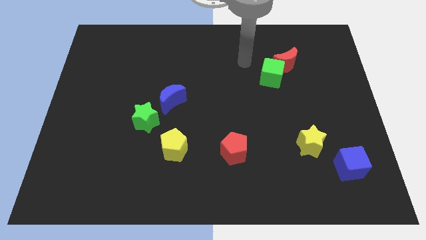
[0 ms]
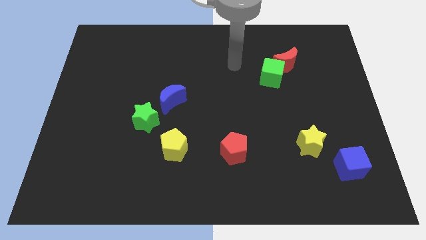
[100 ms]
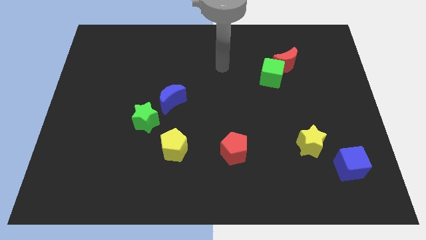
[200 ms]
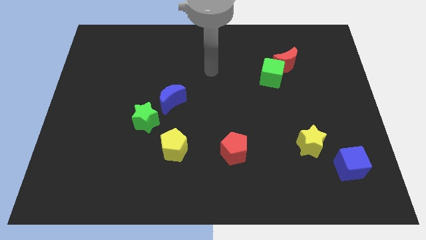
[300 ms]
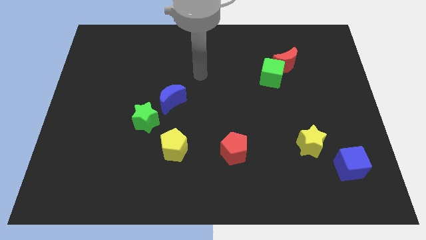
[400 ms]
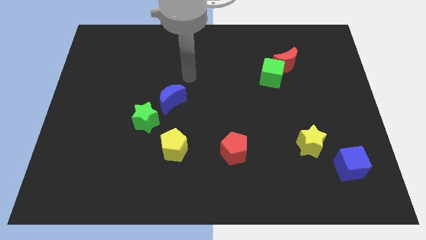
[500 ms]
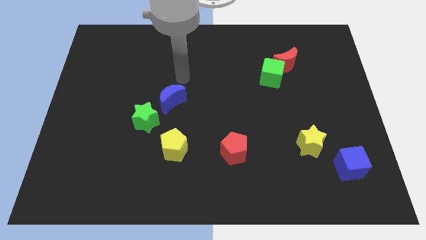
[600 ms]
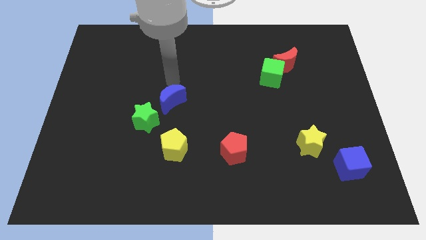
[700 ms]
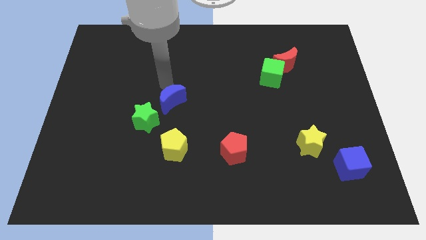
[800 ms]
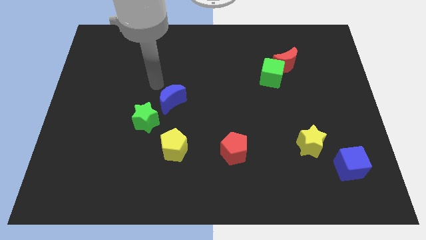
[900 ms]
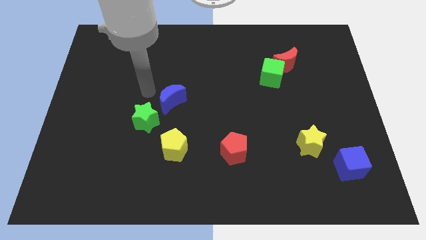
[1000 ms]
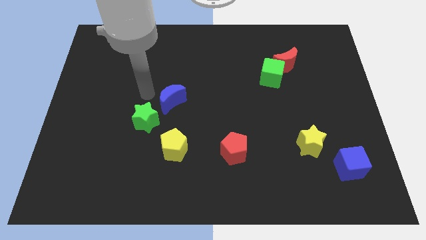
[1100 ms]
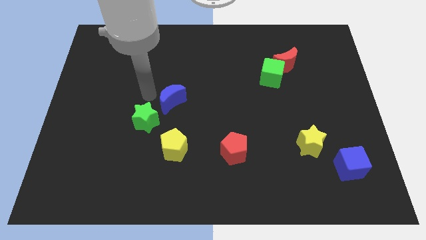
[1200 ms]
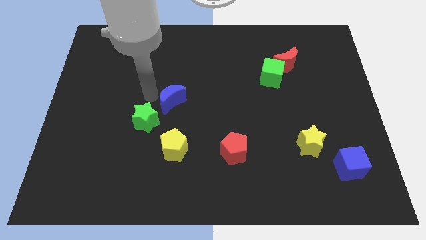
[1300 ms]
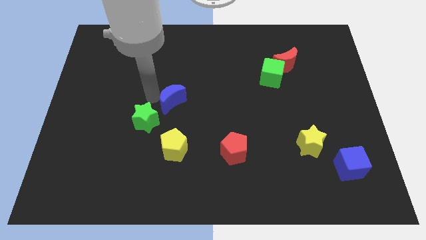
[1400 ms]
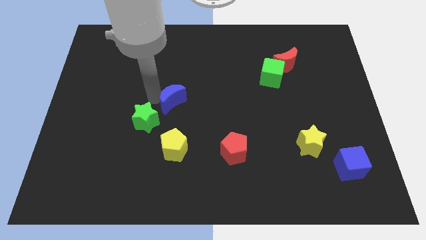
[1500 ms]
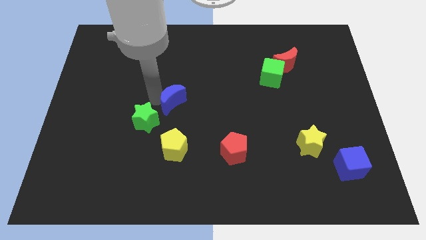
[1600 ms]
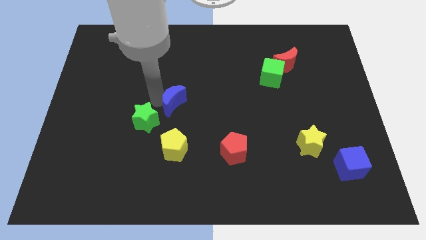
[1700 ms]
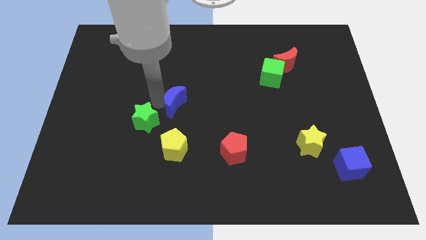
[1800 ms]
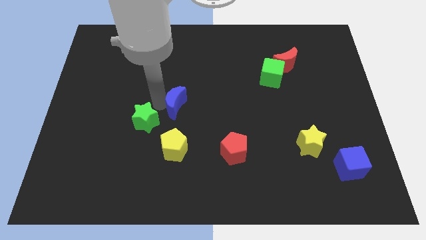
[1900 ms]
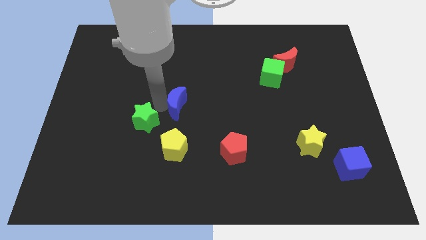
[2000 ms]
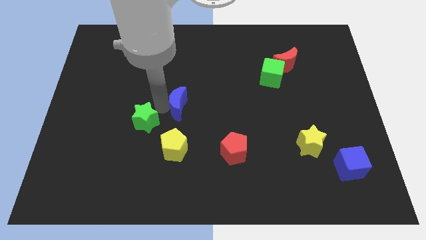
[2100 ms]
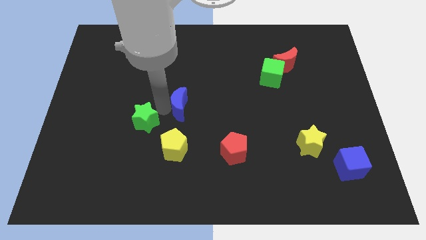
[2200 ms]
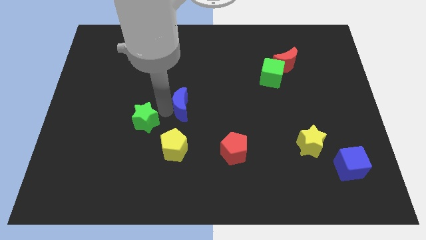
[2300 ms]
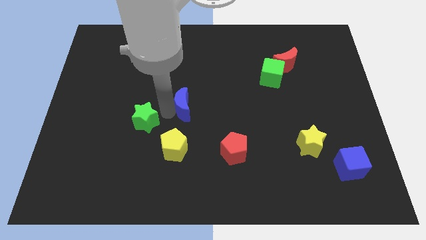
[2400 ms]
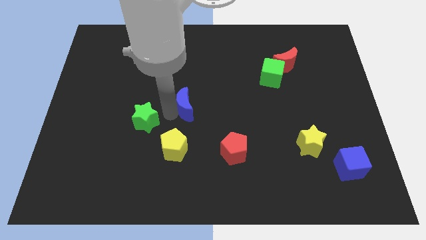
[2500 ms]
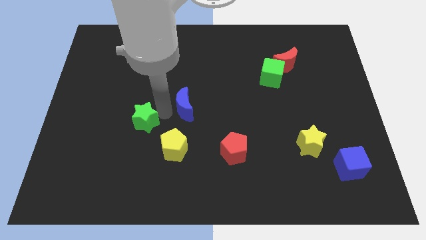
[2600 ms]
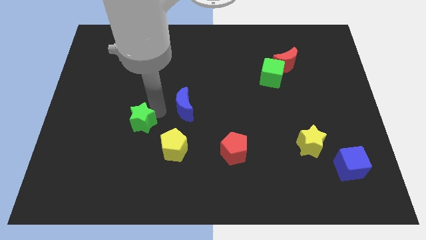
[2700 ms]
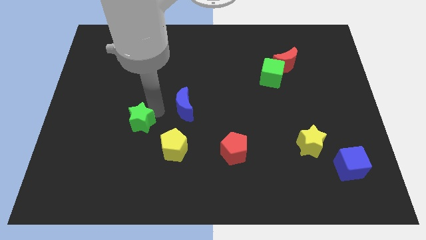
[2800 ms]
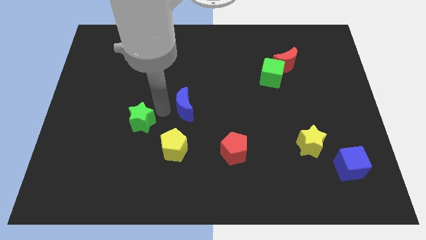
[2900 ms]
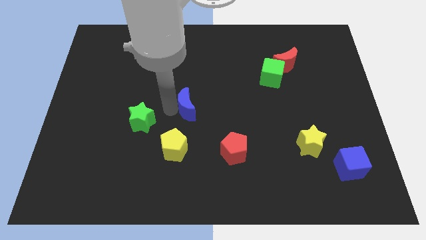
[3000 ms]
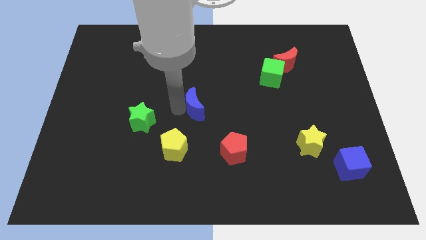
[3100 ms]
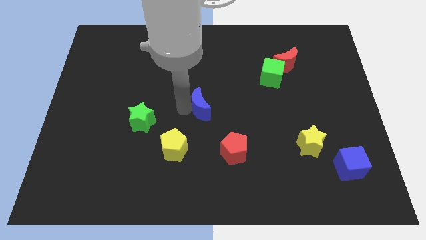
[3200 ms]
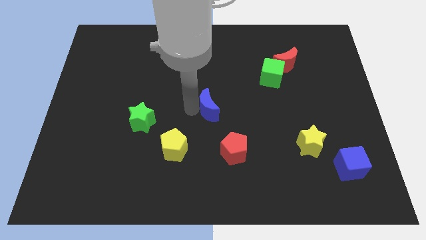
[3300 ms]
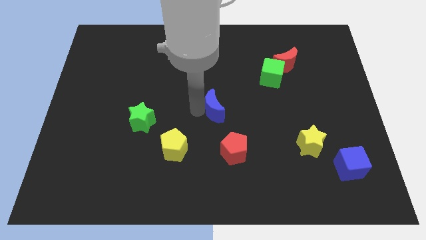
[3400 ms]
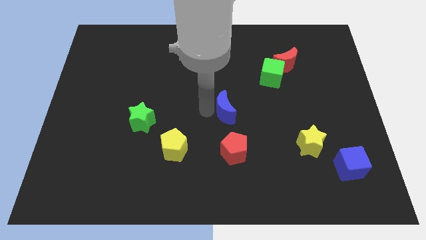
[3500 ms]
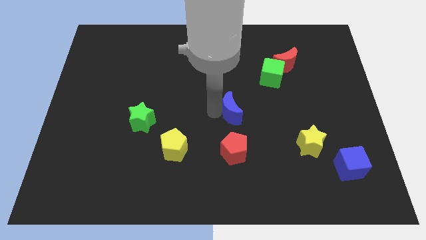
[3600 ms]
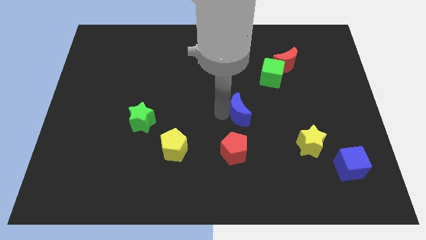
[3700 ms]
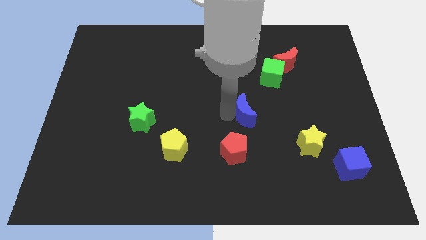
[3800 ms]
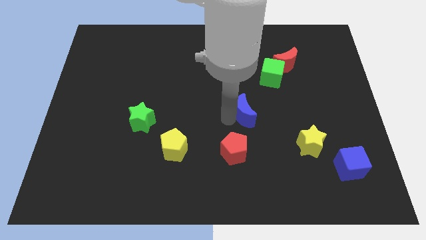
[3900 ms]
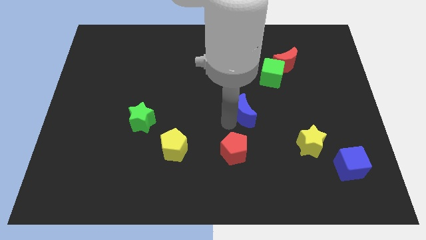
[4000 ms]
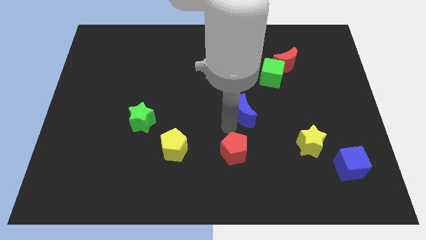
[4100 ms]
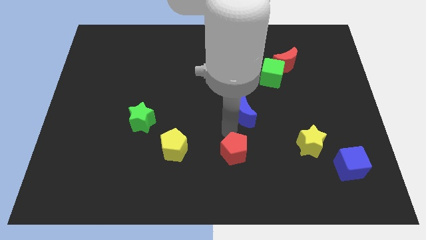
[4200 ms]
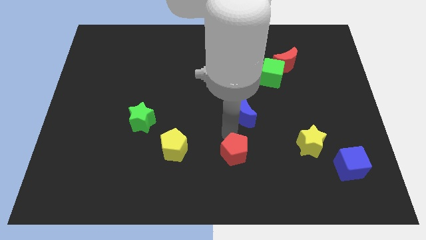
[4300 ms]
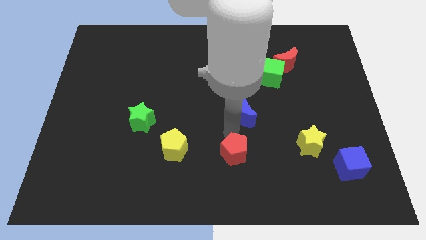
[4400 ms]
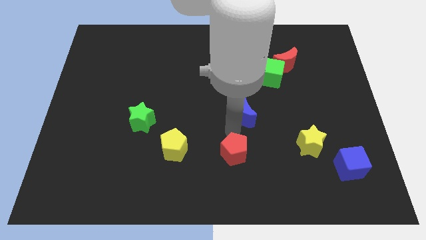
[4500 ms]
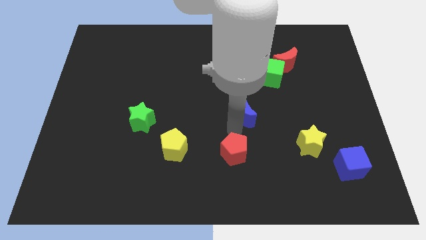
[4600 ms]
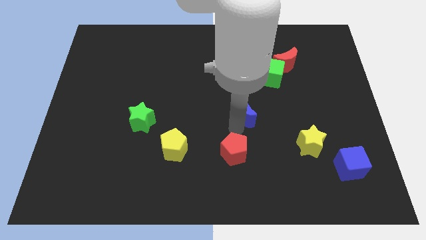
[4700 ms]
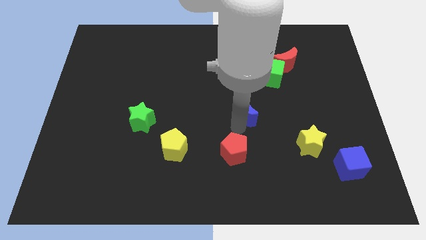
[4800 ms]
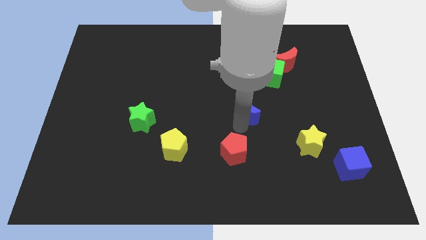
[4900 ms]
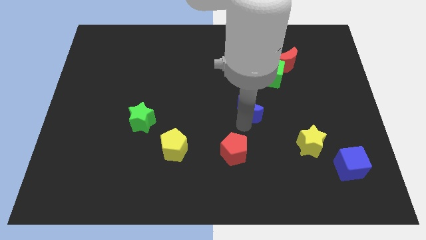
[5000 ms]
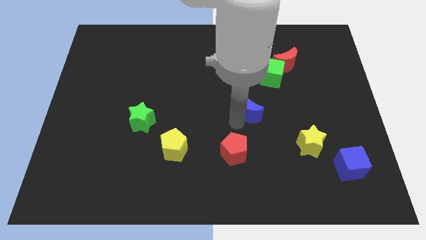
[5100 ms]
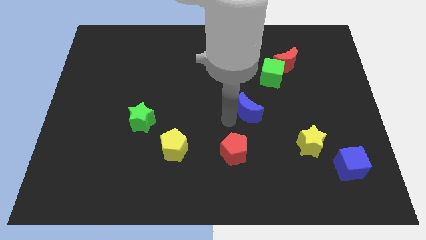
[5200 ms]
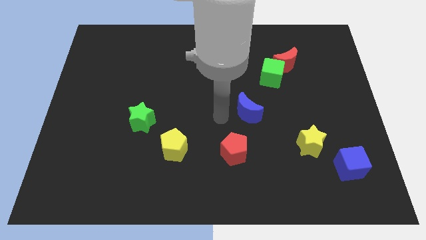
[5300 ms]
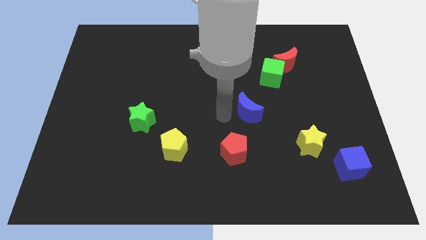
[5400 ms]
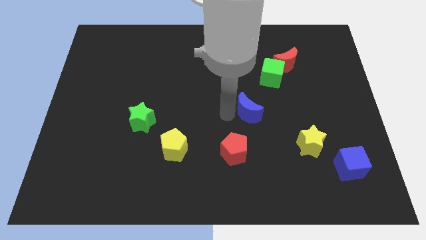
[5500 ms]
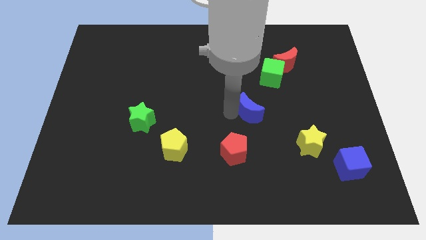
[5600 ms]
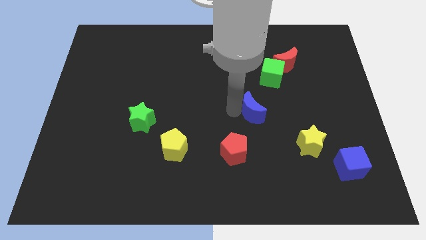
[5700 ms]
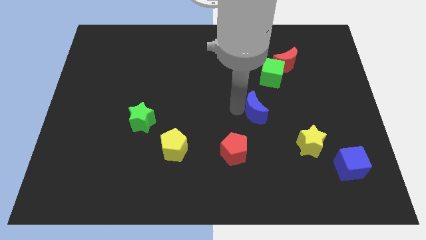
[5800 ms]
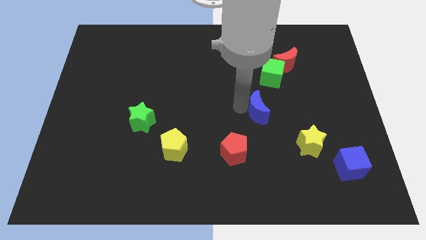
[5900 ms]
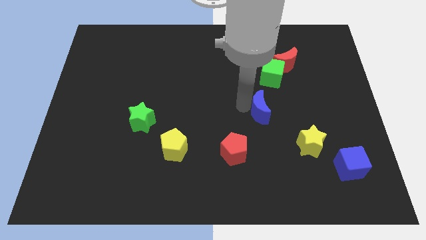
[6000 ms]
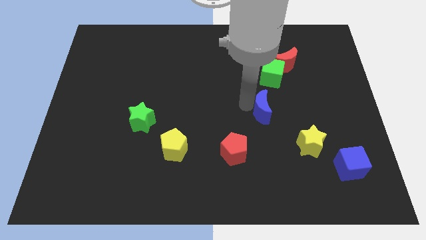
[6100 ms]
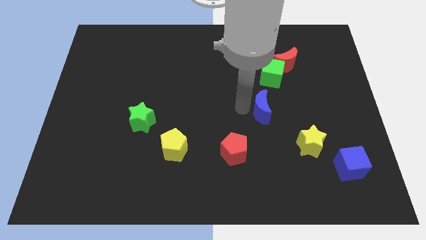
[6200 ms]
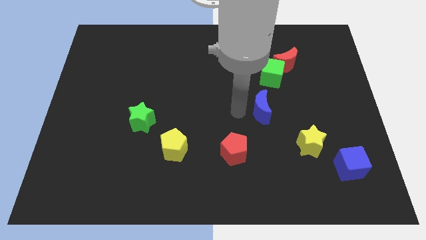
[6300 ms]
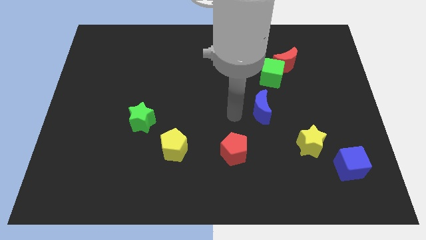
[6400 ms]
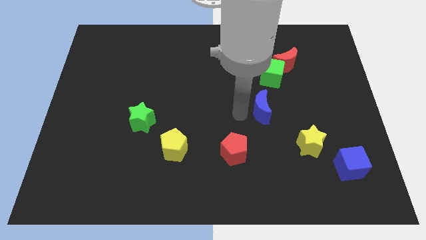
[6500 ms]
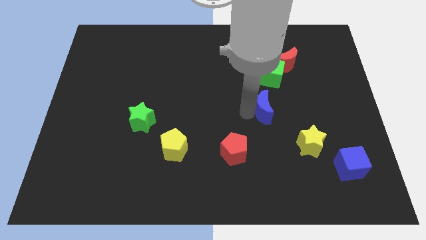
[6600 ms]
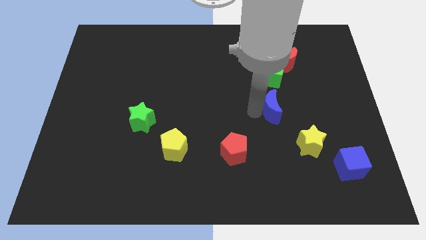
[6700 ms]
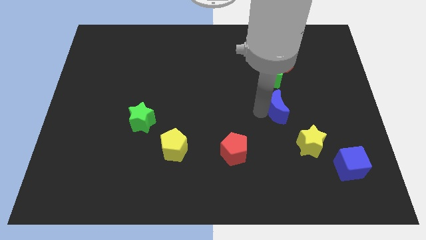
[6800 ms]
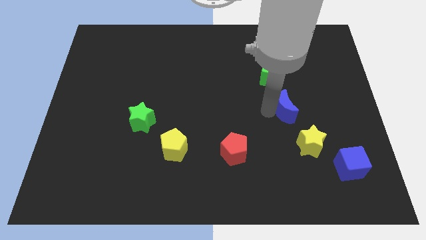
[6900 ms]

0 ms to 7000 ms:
move the blue moon above the yellow star
